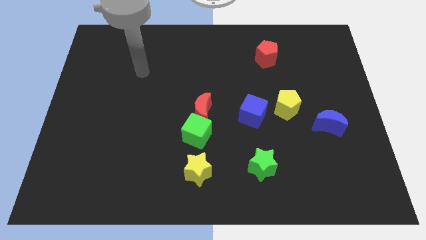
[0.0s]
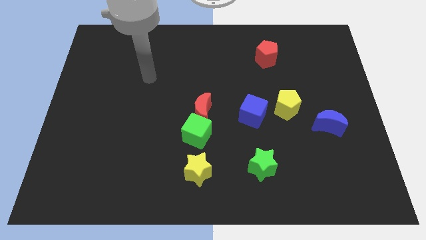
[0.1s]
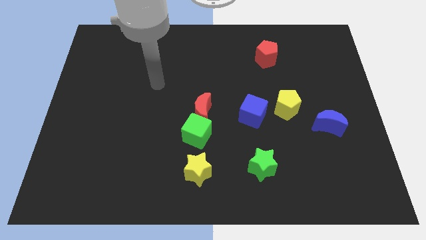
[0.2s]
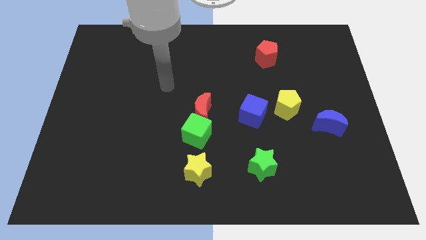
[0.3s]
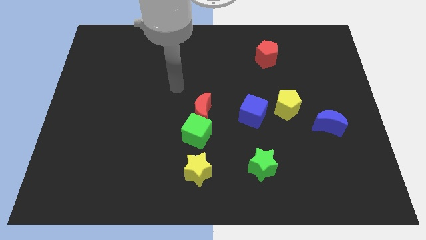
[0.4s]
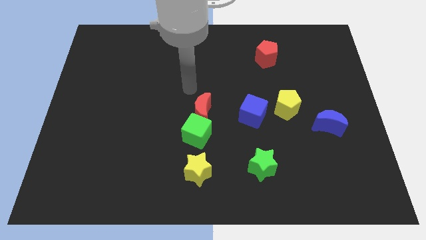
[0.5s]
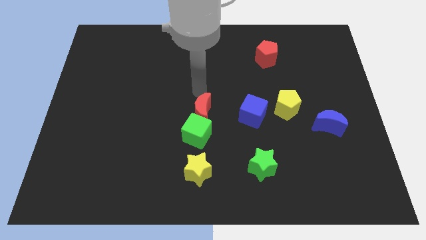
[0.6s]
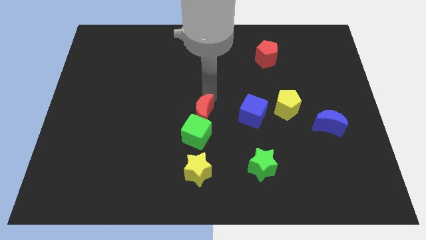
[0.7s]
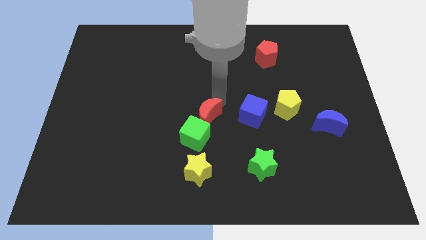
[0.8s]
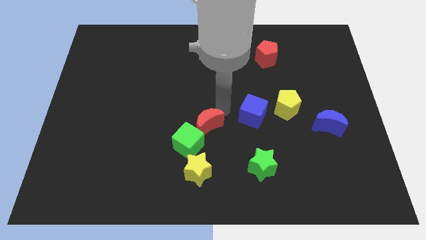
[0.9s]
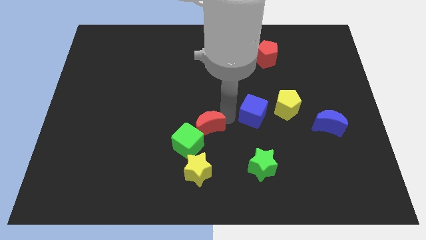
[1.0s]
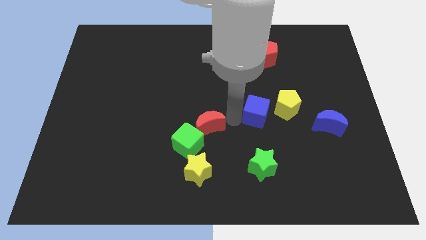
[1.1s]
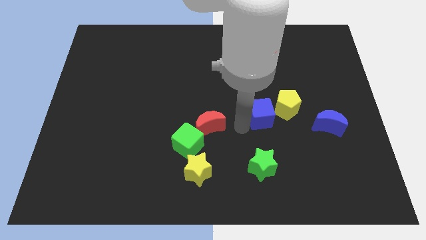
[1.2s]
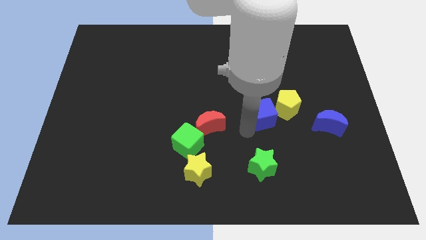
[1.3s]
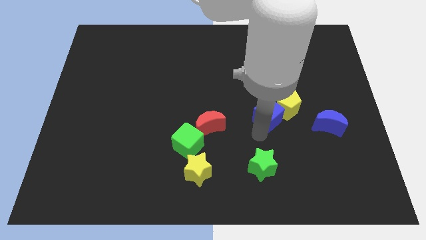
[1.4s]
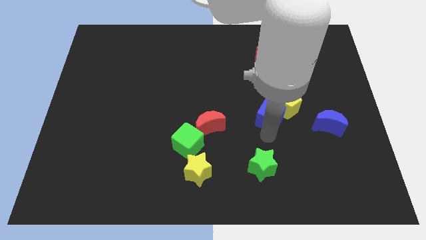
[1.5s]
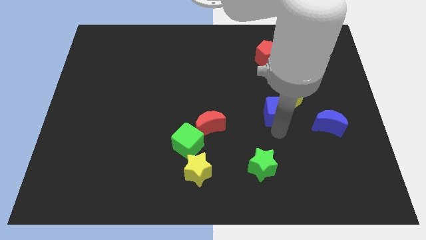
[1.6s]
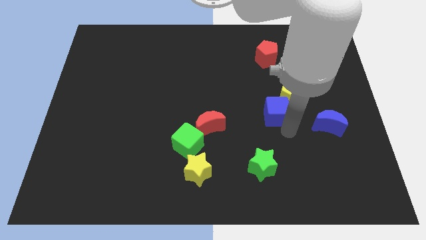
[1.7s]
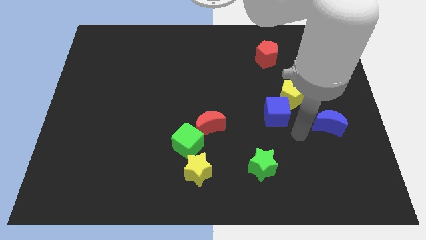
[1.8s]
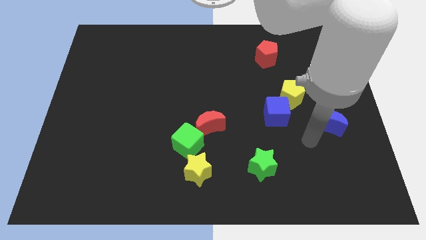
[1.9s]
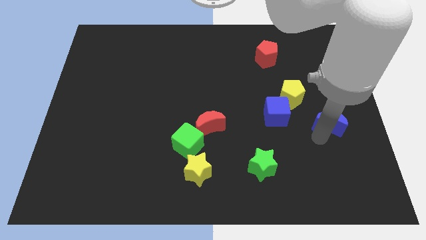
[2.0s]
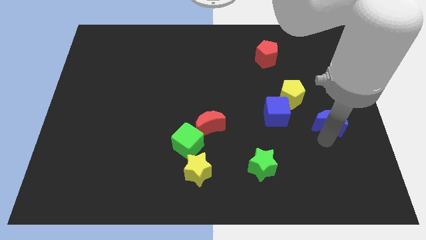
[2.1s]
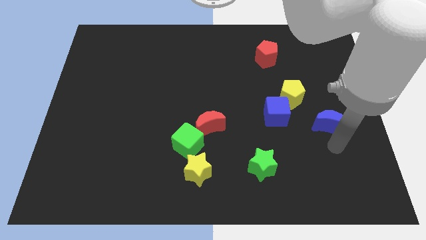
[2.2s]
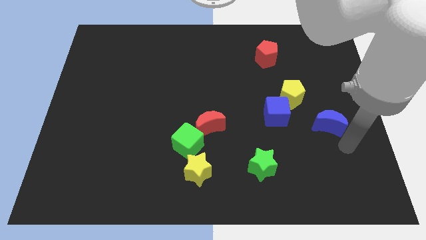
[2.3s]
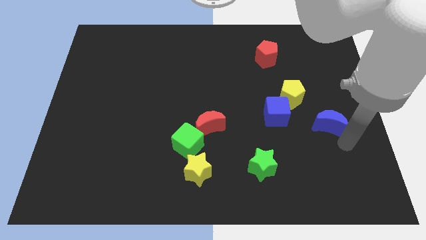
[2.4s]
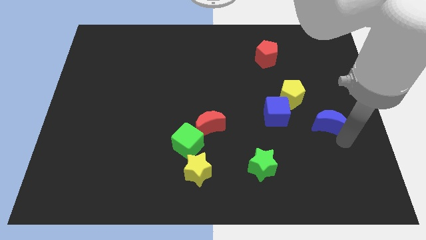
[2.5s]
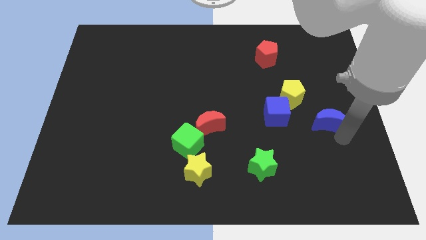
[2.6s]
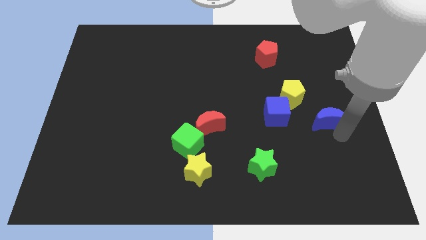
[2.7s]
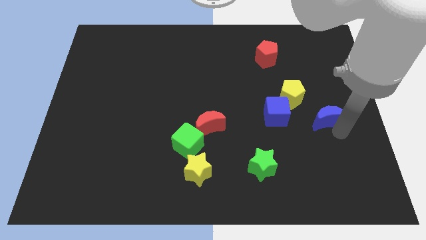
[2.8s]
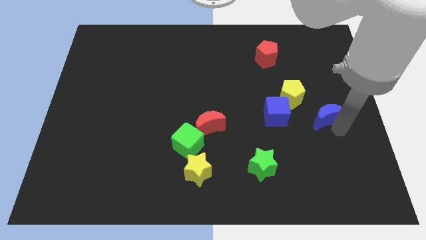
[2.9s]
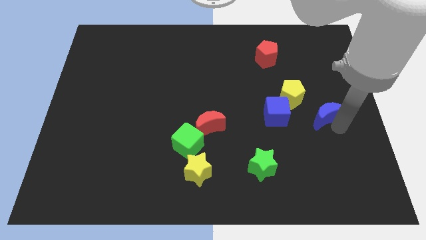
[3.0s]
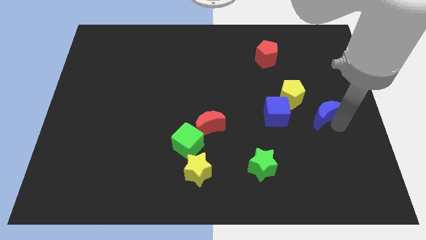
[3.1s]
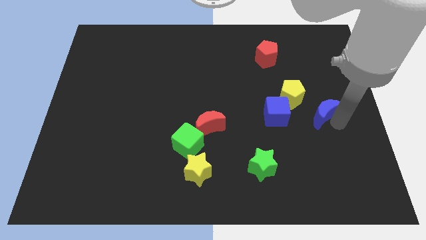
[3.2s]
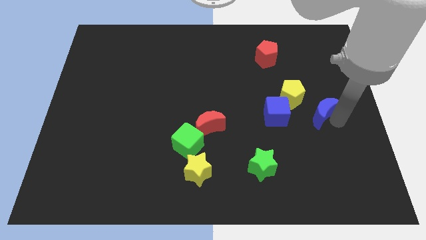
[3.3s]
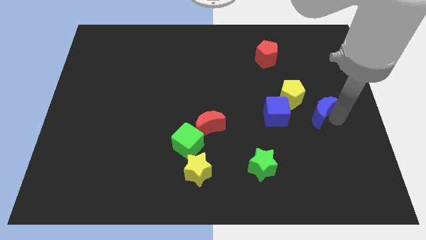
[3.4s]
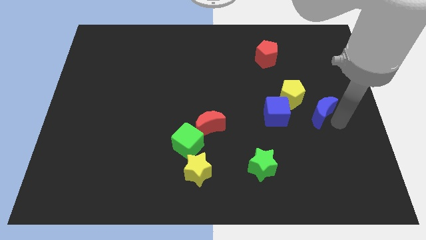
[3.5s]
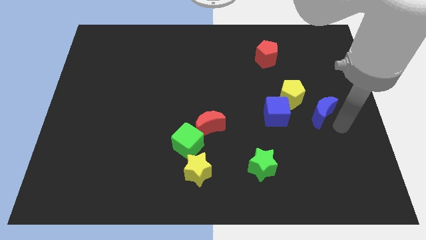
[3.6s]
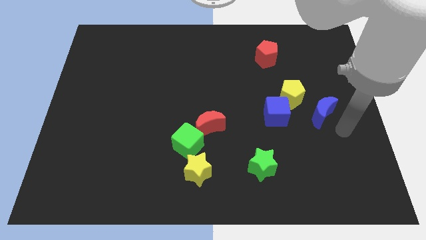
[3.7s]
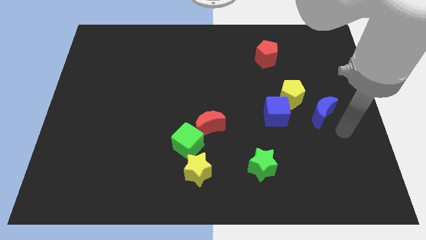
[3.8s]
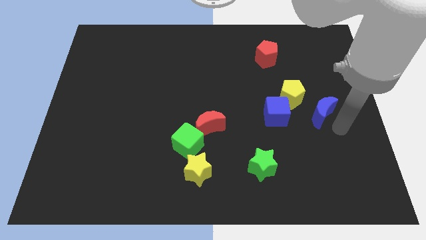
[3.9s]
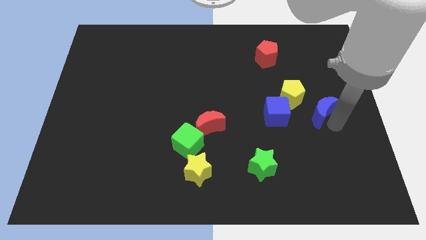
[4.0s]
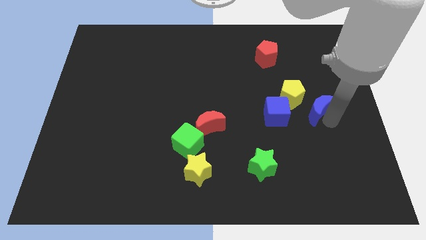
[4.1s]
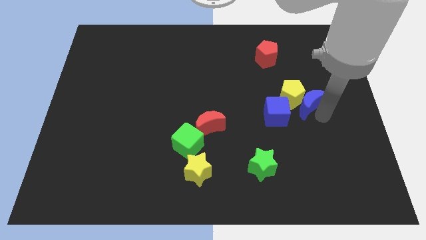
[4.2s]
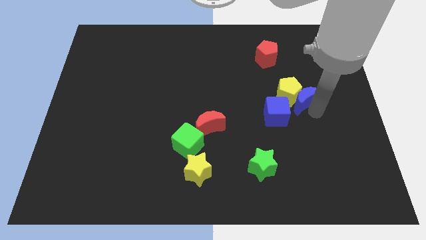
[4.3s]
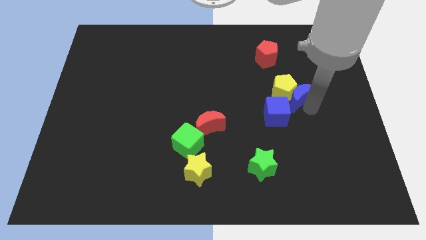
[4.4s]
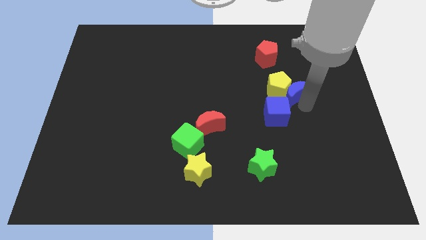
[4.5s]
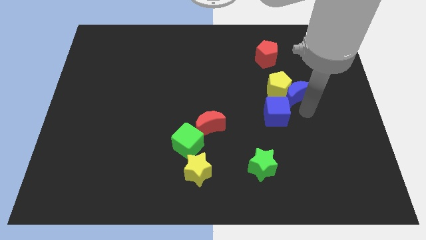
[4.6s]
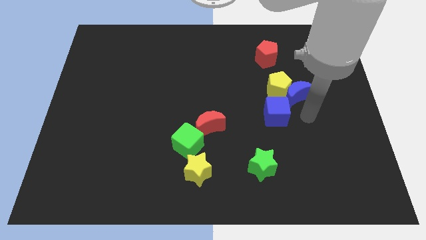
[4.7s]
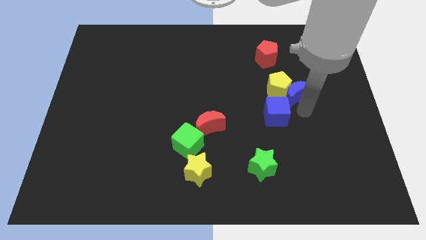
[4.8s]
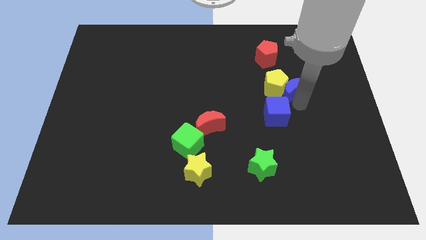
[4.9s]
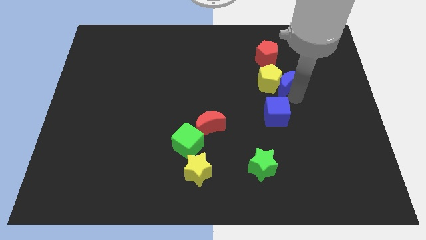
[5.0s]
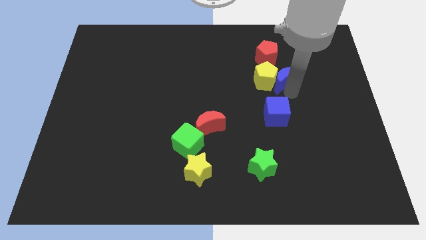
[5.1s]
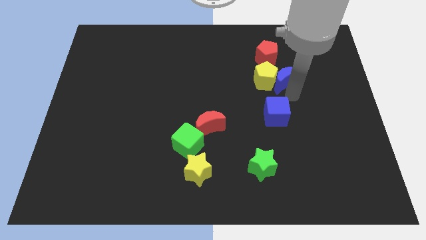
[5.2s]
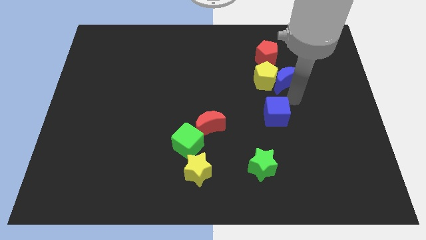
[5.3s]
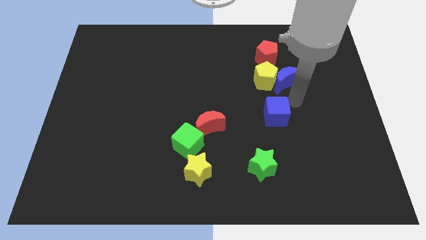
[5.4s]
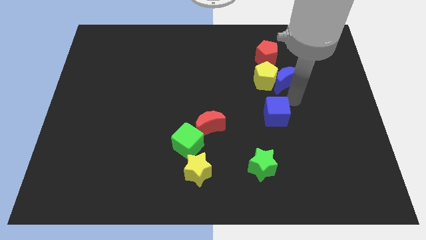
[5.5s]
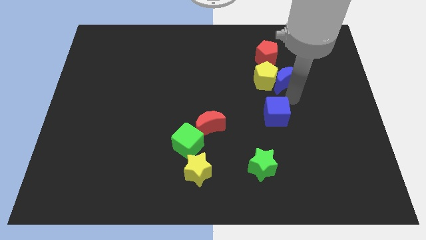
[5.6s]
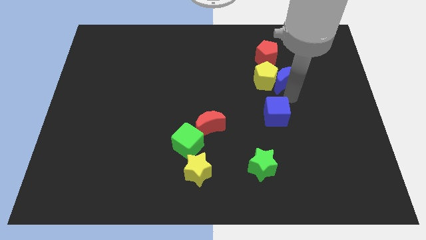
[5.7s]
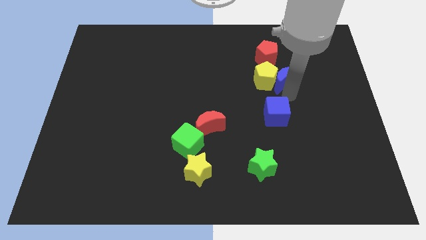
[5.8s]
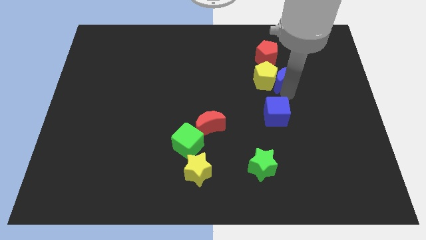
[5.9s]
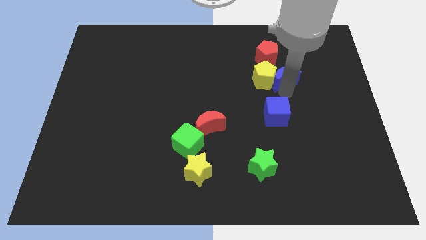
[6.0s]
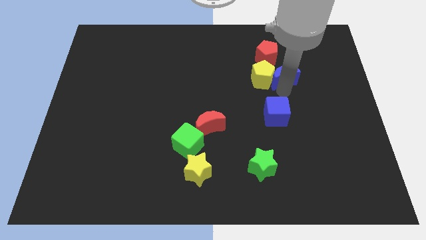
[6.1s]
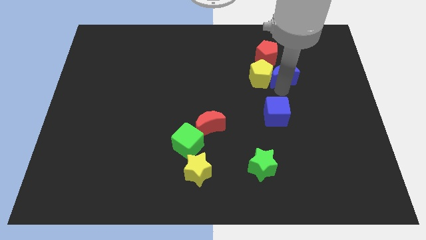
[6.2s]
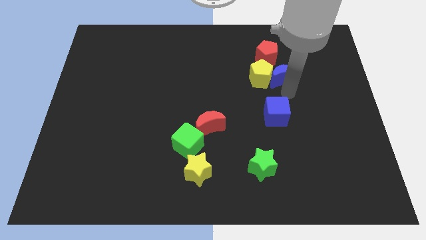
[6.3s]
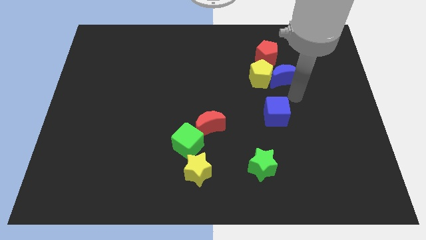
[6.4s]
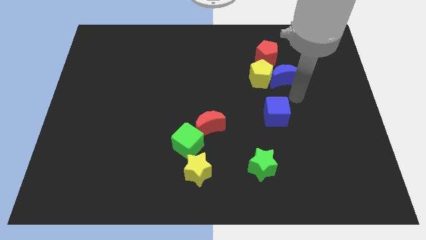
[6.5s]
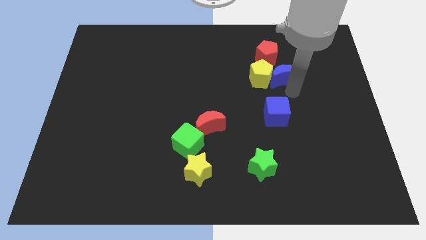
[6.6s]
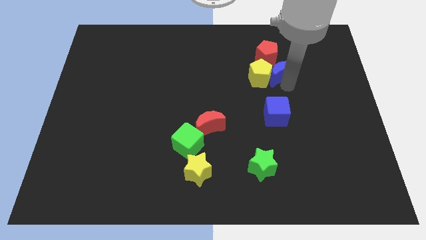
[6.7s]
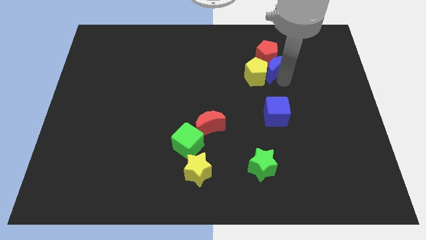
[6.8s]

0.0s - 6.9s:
move the blue moon towards the red pentagon

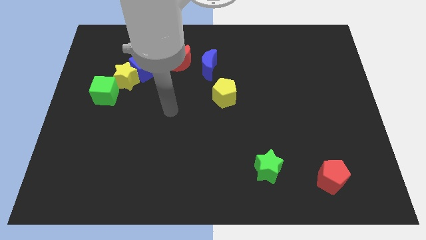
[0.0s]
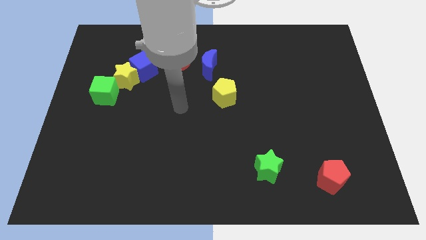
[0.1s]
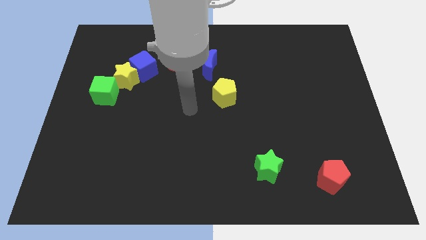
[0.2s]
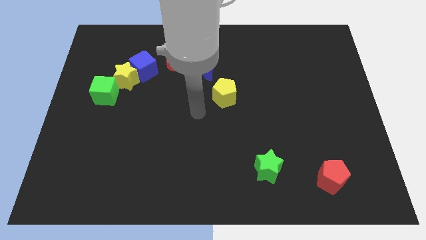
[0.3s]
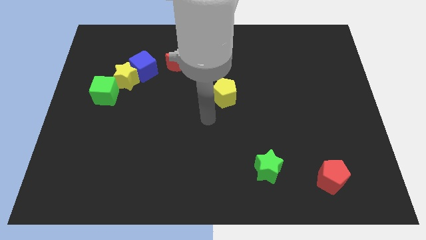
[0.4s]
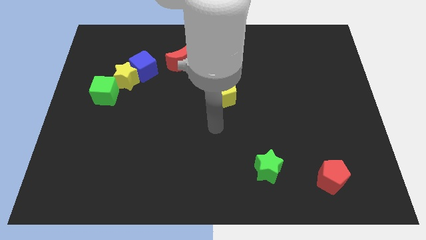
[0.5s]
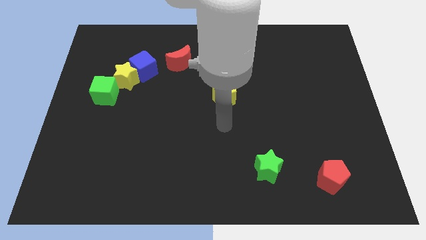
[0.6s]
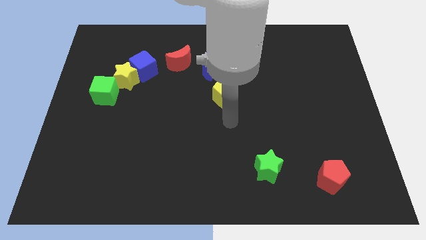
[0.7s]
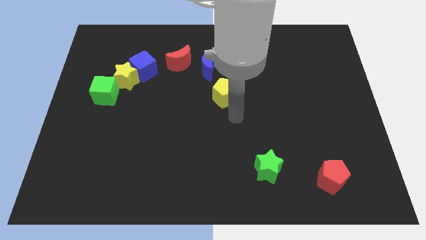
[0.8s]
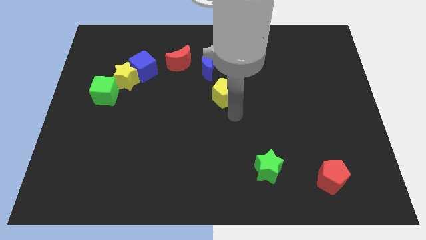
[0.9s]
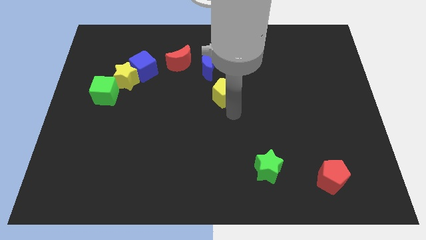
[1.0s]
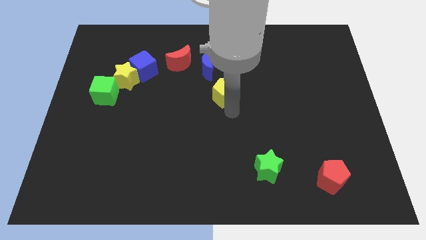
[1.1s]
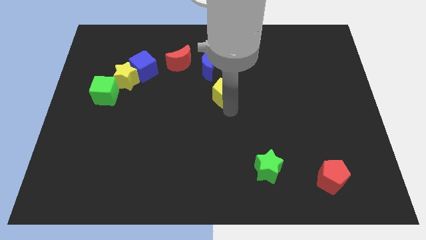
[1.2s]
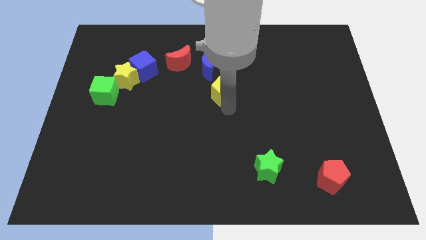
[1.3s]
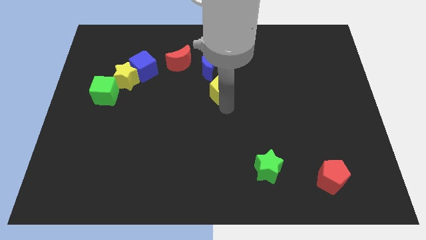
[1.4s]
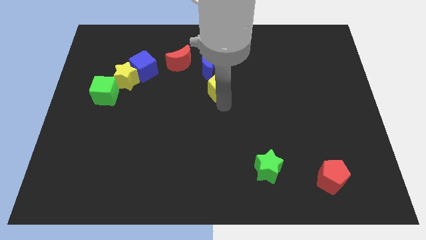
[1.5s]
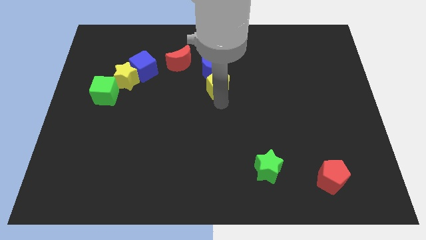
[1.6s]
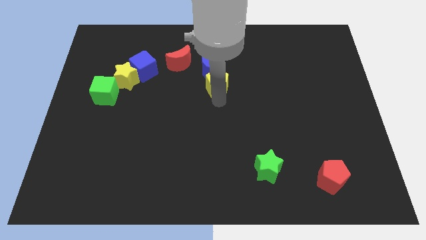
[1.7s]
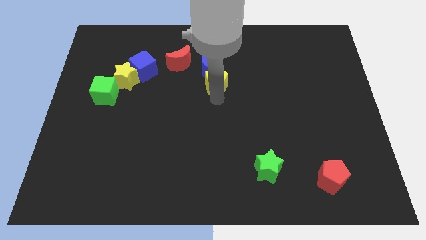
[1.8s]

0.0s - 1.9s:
slide the yellow pentagon close to the blue moon
